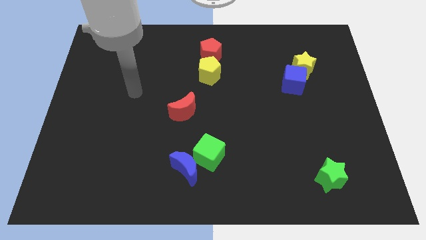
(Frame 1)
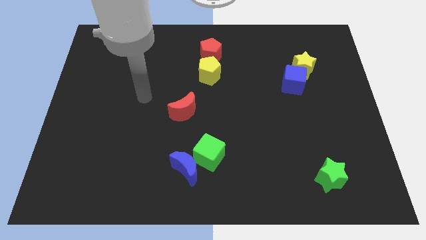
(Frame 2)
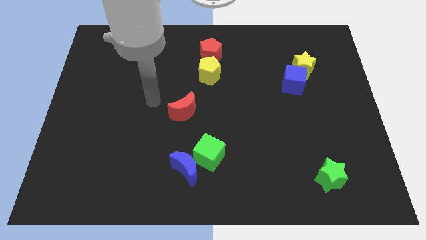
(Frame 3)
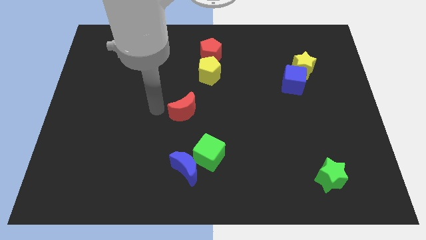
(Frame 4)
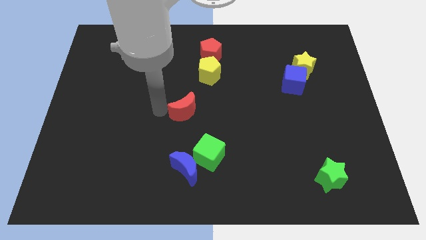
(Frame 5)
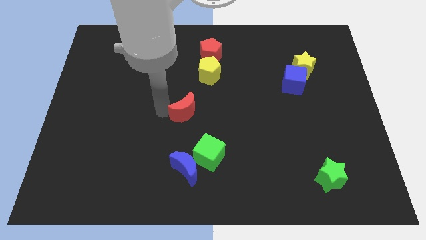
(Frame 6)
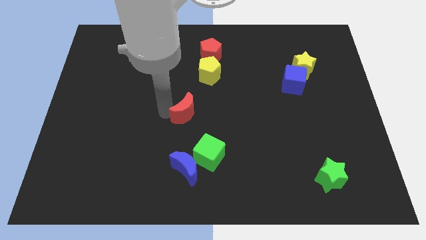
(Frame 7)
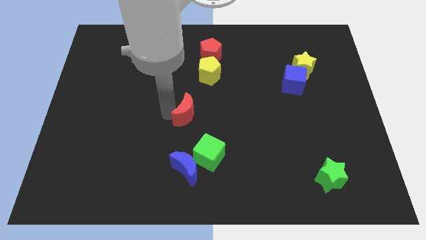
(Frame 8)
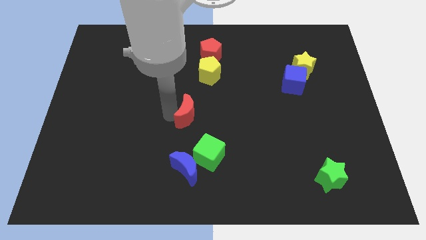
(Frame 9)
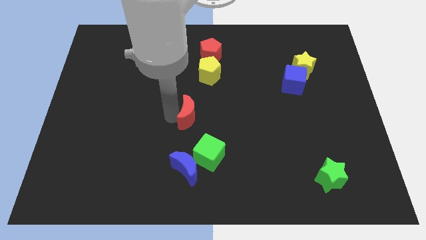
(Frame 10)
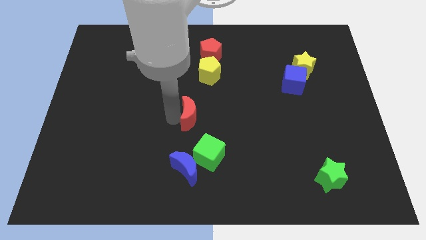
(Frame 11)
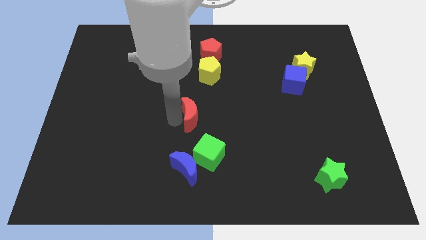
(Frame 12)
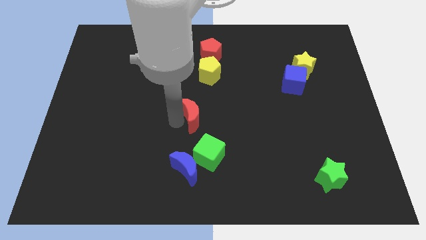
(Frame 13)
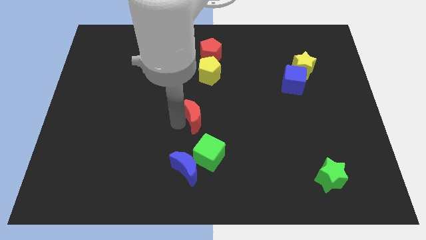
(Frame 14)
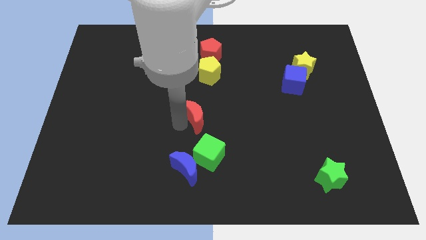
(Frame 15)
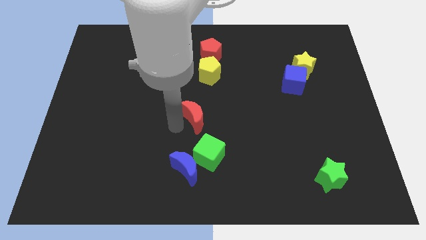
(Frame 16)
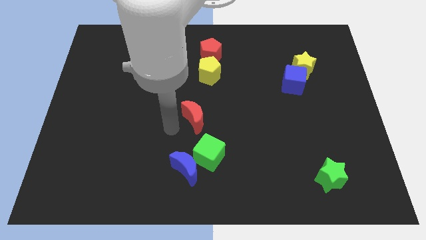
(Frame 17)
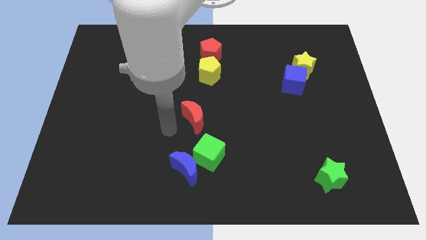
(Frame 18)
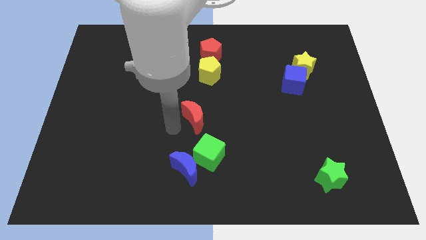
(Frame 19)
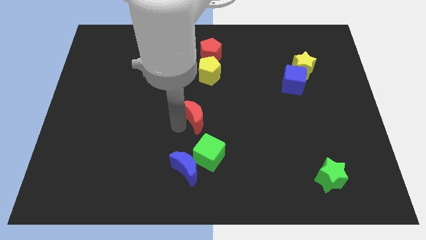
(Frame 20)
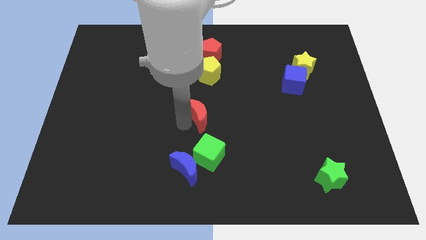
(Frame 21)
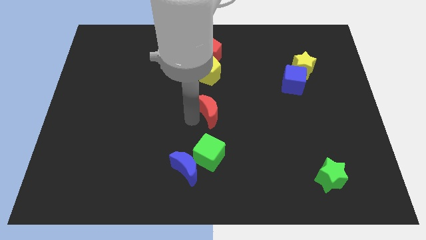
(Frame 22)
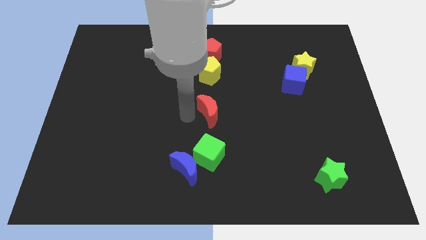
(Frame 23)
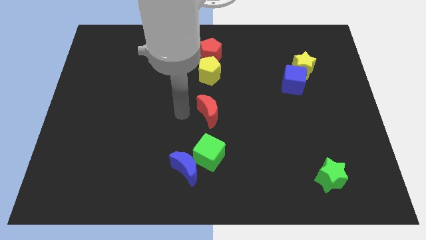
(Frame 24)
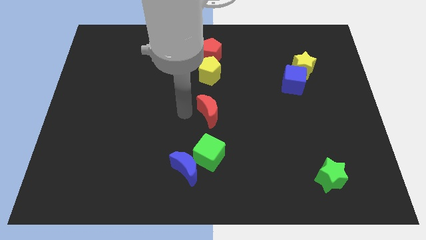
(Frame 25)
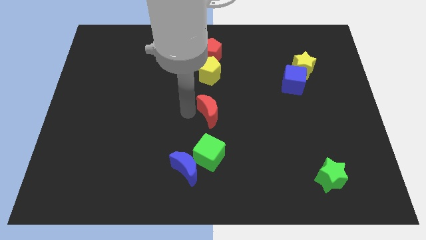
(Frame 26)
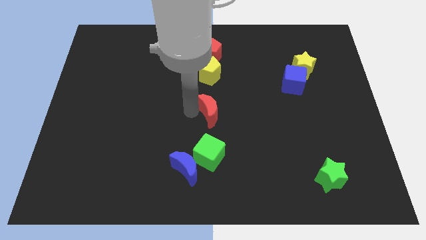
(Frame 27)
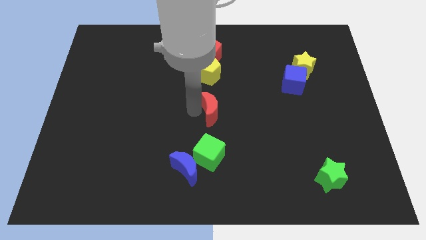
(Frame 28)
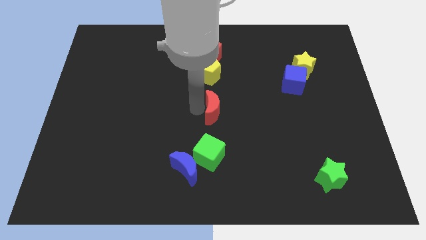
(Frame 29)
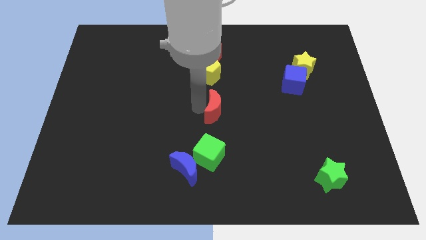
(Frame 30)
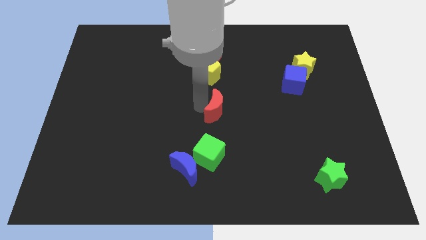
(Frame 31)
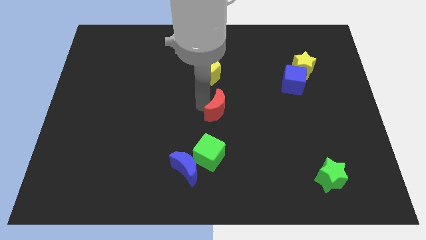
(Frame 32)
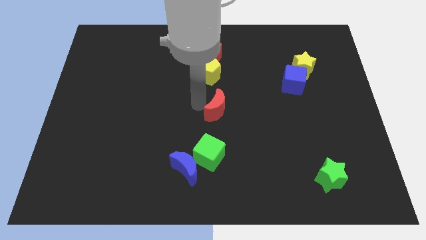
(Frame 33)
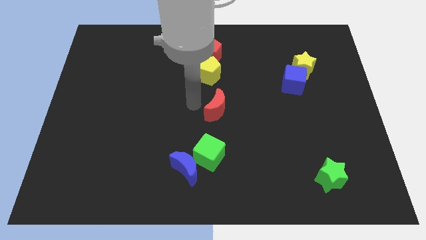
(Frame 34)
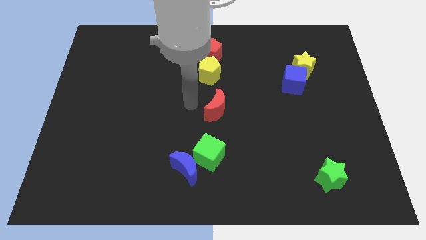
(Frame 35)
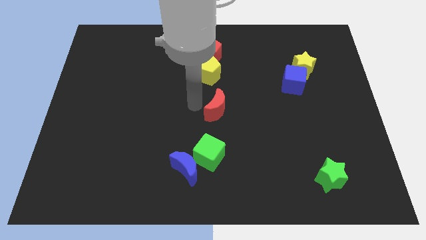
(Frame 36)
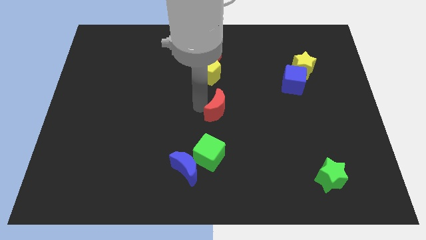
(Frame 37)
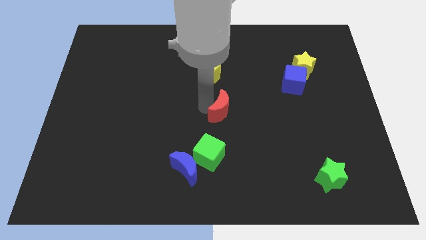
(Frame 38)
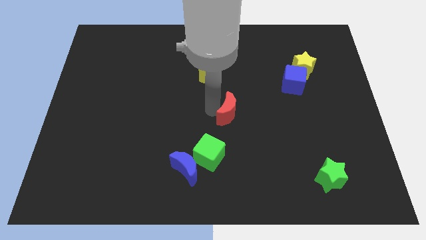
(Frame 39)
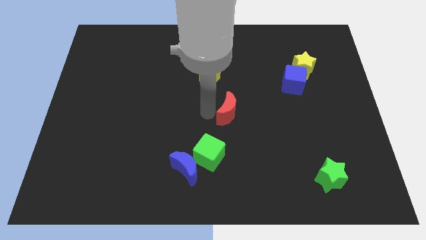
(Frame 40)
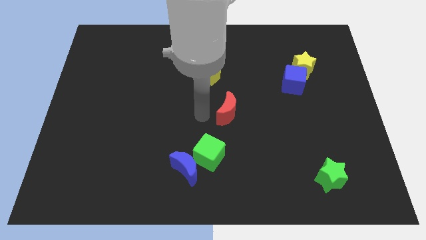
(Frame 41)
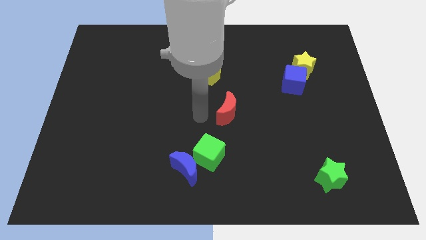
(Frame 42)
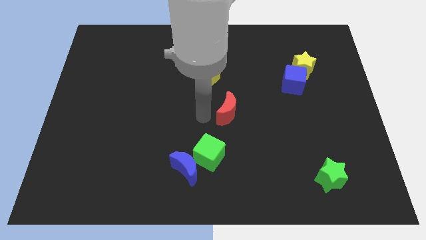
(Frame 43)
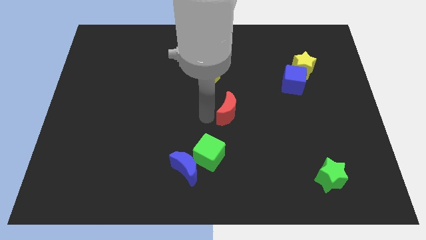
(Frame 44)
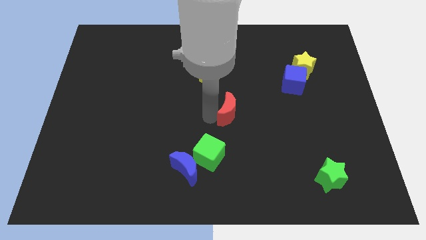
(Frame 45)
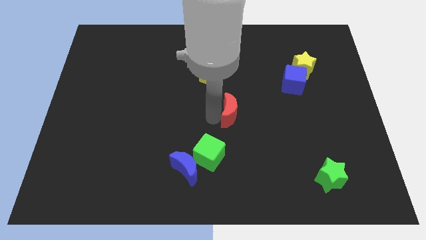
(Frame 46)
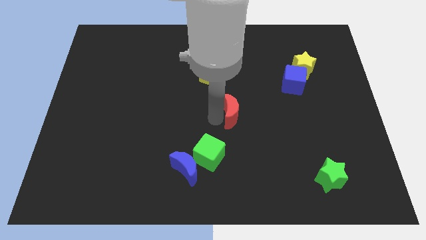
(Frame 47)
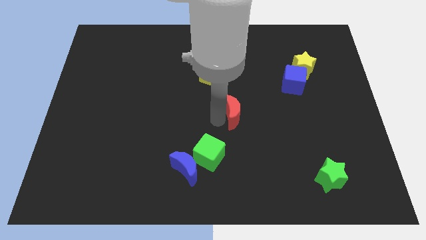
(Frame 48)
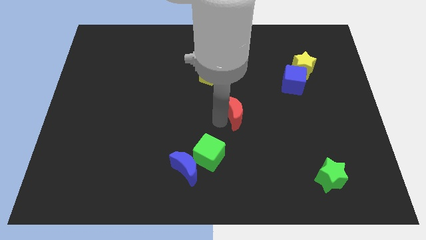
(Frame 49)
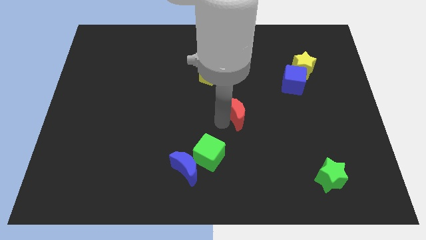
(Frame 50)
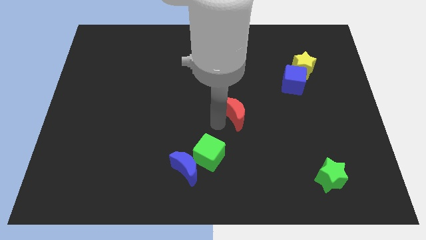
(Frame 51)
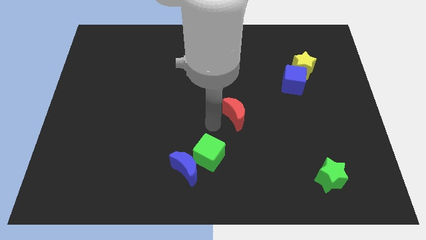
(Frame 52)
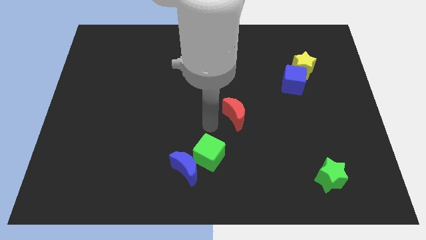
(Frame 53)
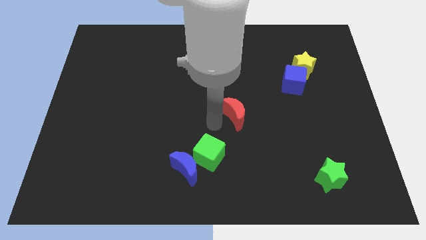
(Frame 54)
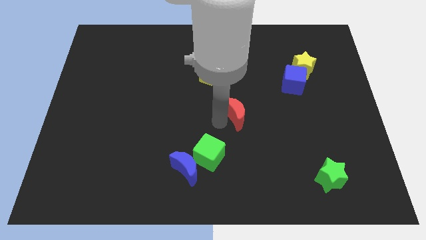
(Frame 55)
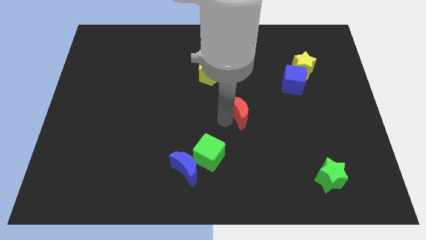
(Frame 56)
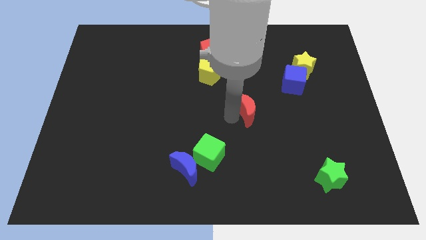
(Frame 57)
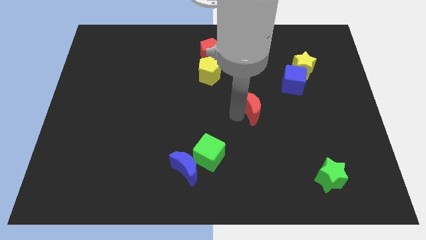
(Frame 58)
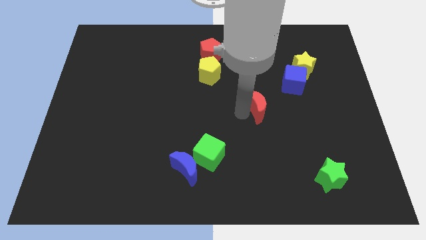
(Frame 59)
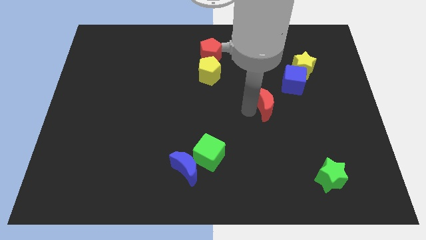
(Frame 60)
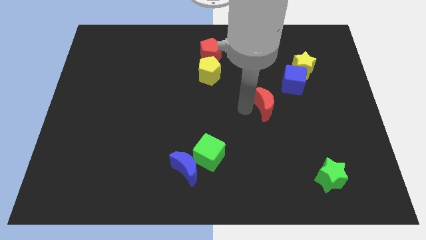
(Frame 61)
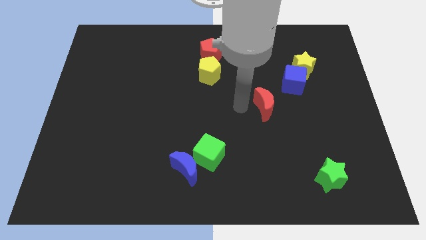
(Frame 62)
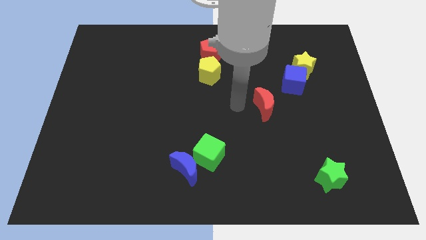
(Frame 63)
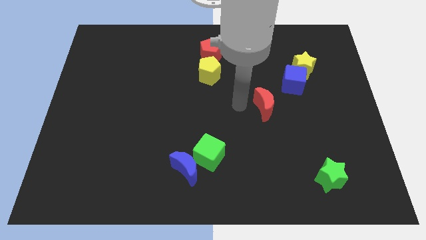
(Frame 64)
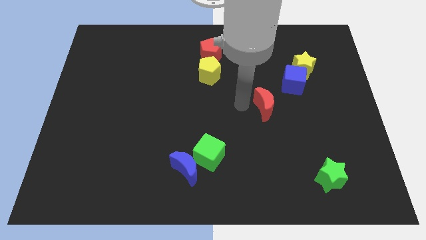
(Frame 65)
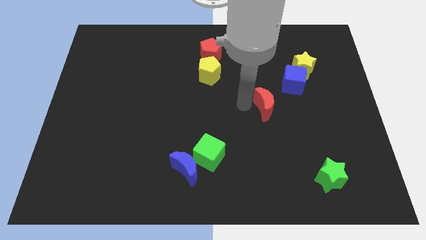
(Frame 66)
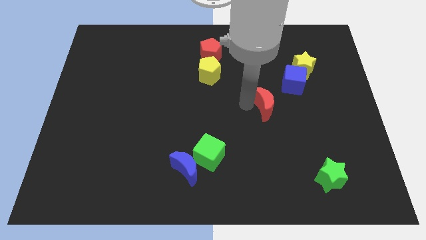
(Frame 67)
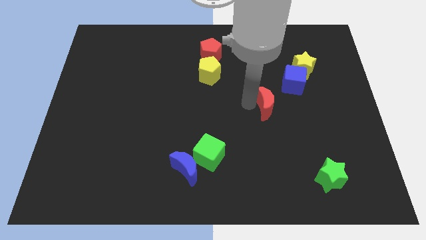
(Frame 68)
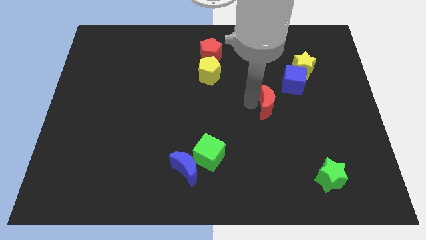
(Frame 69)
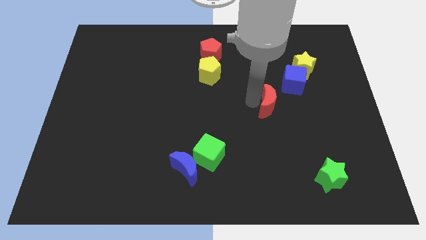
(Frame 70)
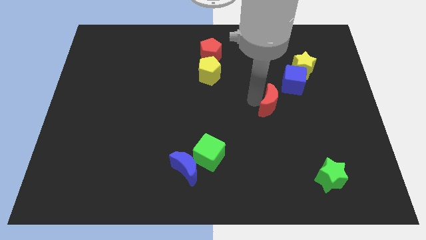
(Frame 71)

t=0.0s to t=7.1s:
move the red moon right

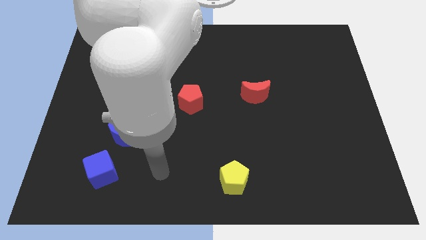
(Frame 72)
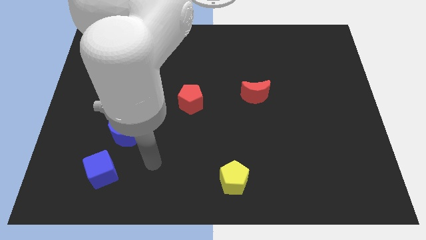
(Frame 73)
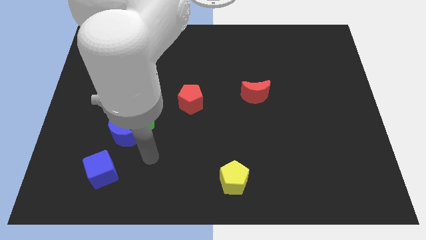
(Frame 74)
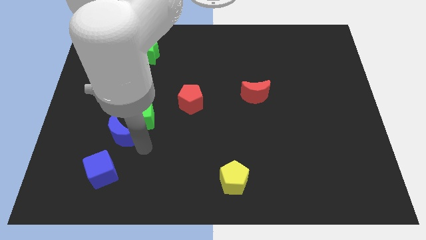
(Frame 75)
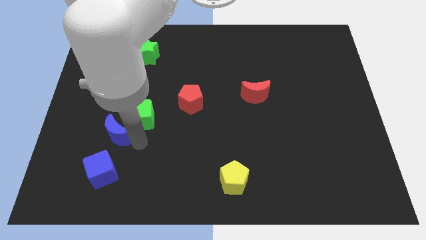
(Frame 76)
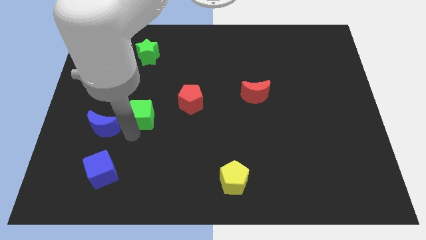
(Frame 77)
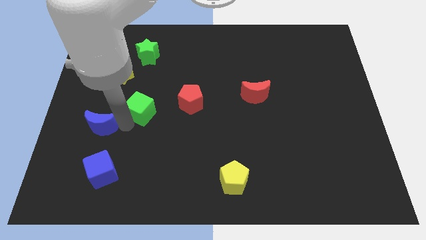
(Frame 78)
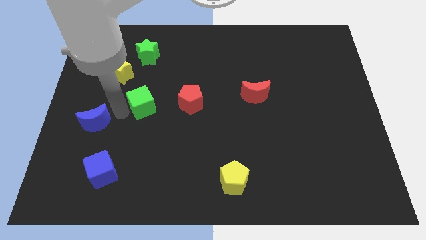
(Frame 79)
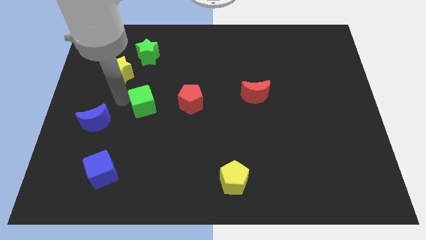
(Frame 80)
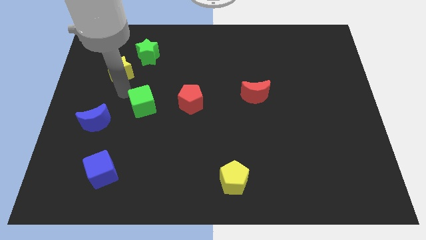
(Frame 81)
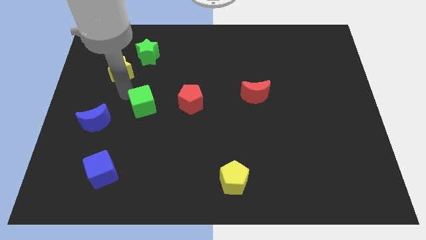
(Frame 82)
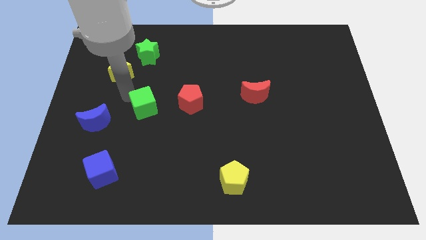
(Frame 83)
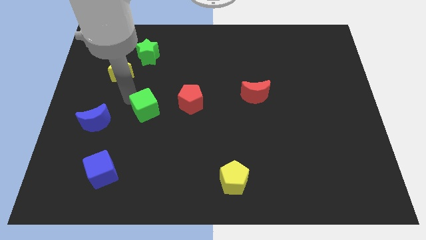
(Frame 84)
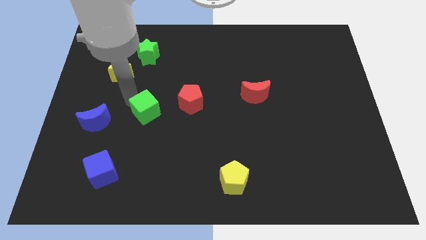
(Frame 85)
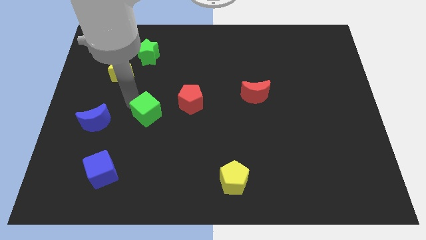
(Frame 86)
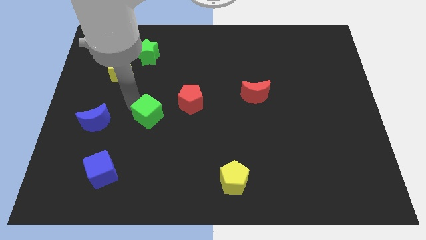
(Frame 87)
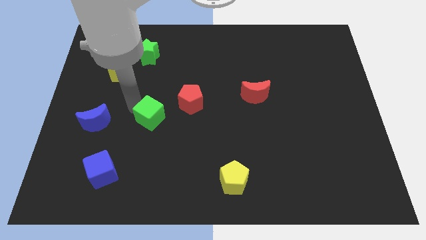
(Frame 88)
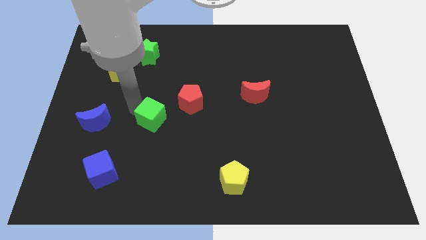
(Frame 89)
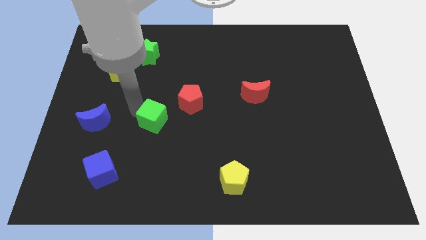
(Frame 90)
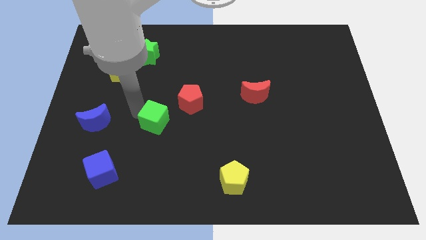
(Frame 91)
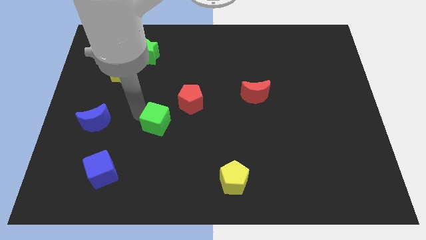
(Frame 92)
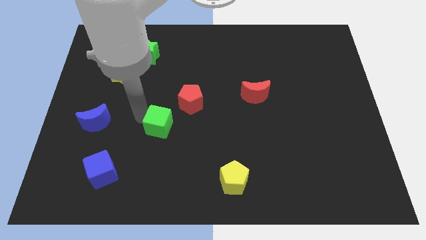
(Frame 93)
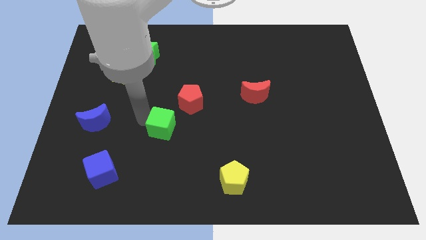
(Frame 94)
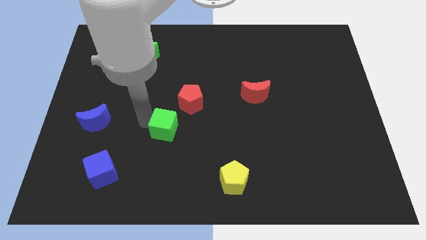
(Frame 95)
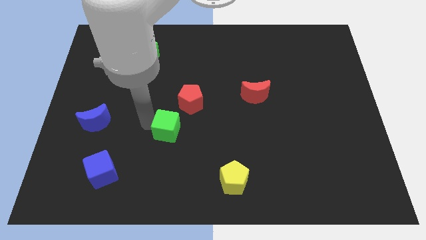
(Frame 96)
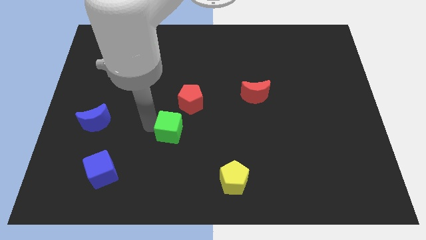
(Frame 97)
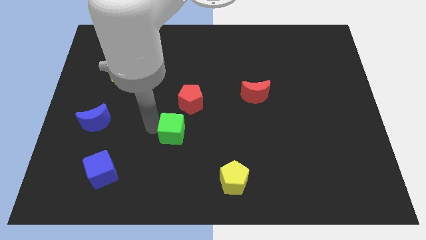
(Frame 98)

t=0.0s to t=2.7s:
push the green cube a little right
